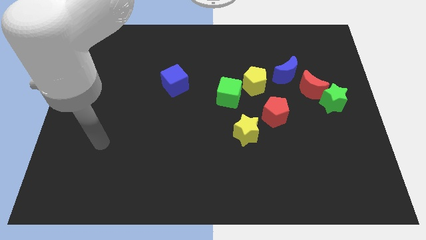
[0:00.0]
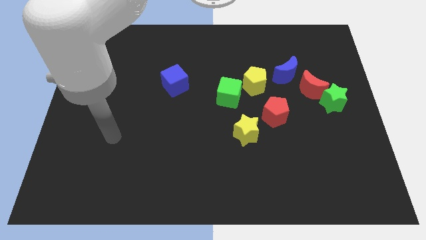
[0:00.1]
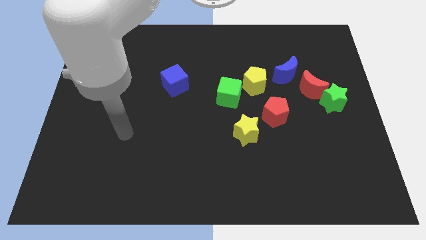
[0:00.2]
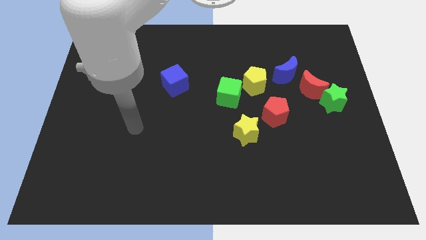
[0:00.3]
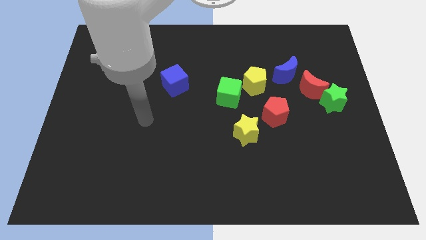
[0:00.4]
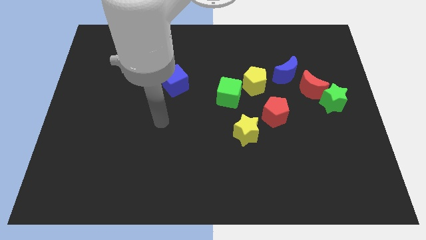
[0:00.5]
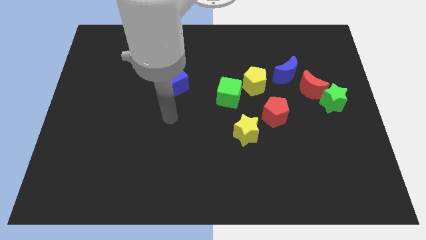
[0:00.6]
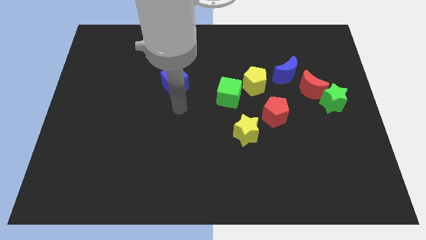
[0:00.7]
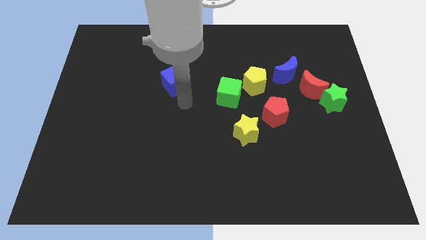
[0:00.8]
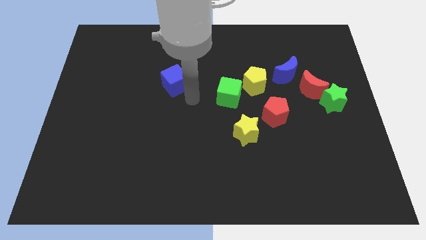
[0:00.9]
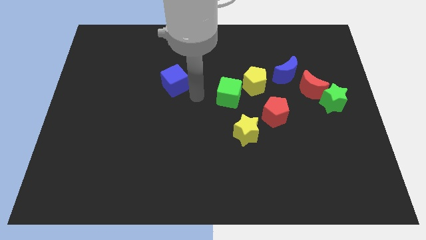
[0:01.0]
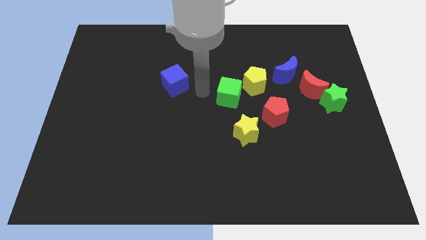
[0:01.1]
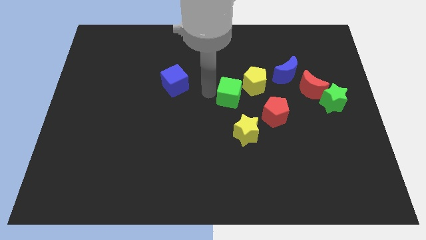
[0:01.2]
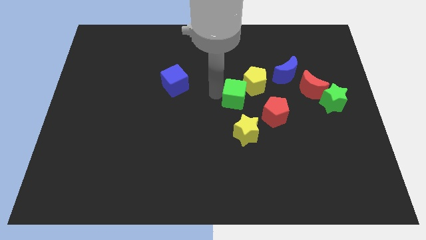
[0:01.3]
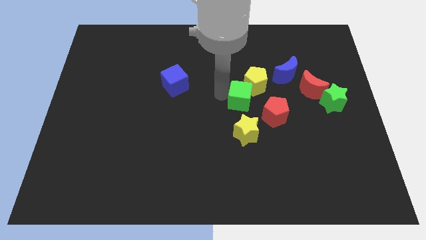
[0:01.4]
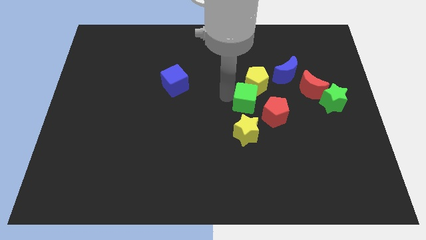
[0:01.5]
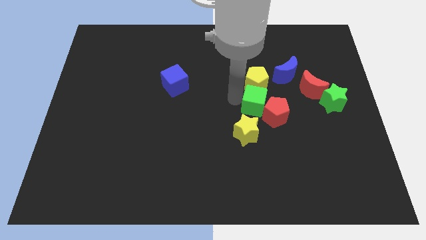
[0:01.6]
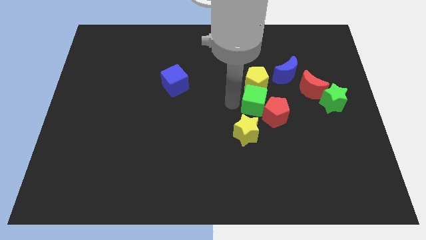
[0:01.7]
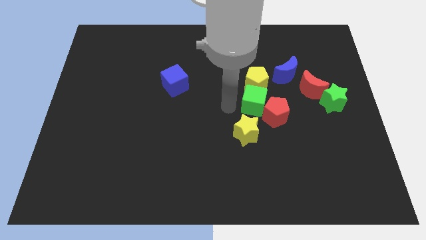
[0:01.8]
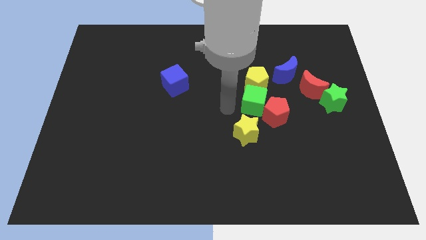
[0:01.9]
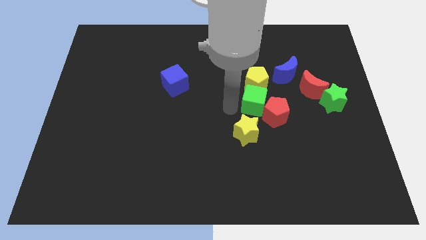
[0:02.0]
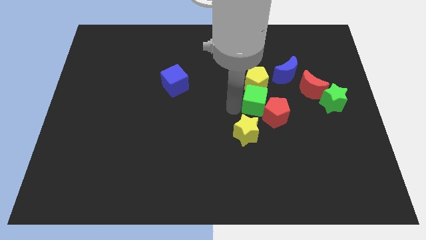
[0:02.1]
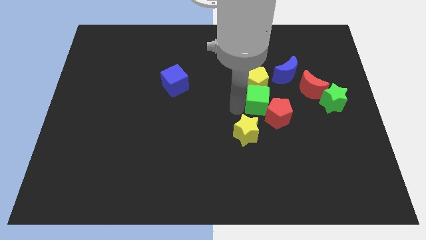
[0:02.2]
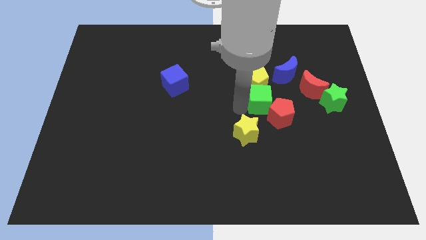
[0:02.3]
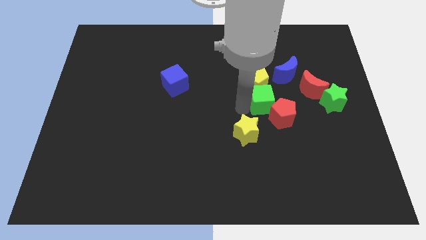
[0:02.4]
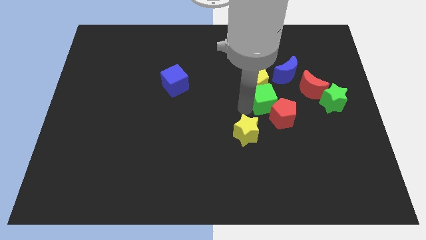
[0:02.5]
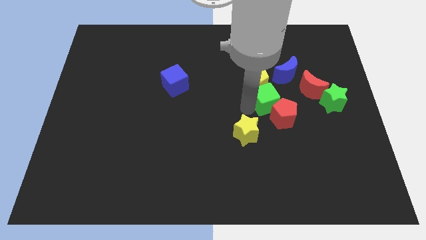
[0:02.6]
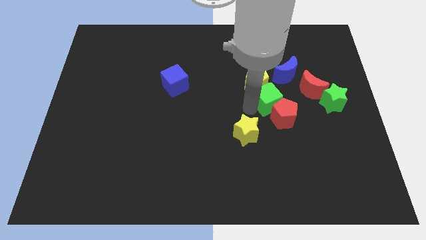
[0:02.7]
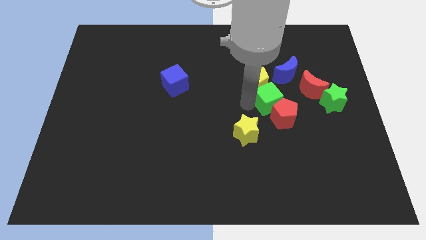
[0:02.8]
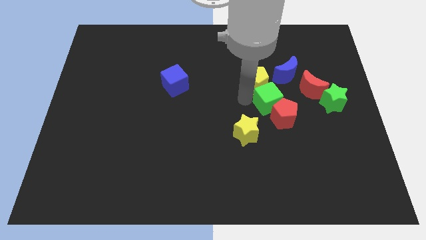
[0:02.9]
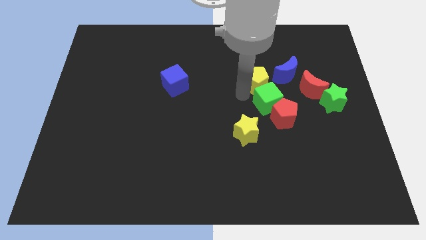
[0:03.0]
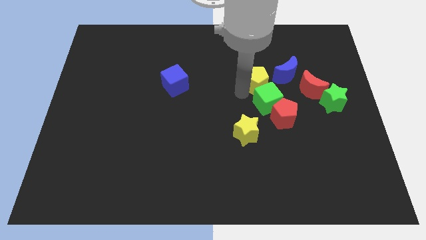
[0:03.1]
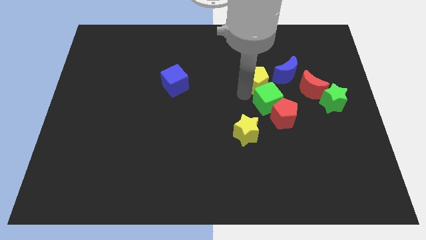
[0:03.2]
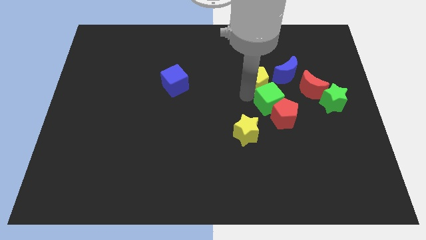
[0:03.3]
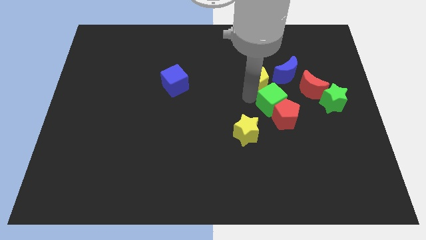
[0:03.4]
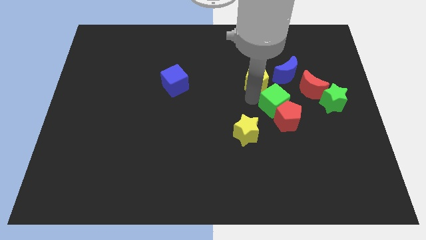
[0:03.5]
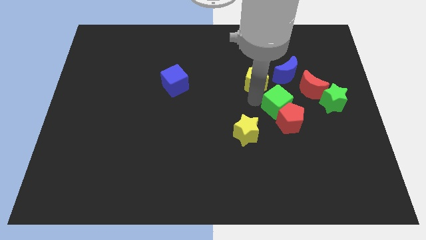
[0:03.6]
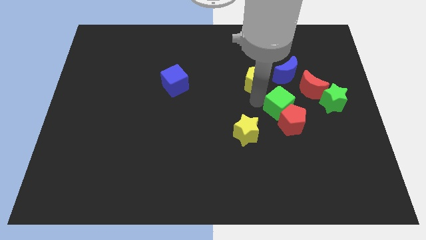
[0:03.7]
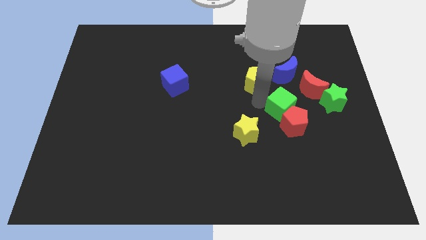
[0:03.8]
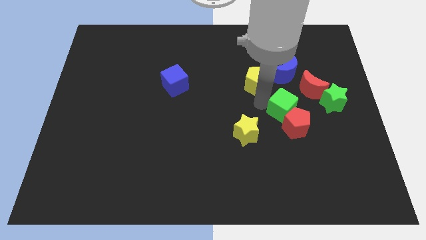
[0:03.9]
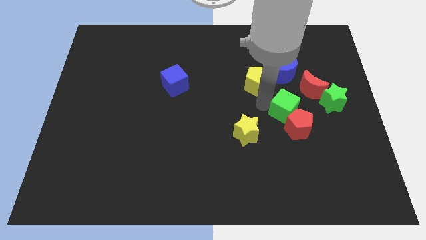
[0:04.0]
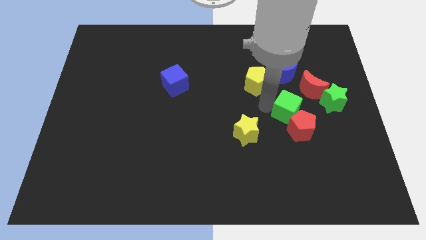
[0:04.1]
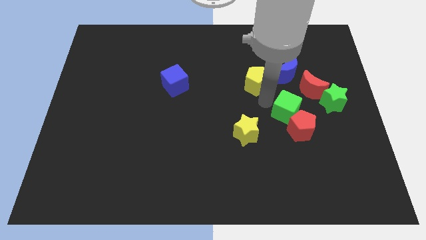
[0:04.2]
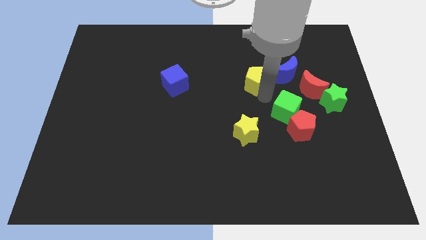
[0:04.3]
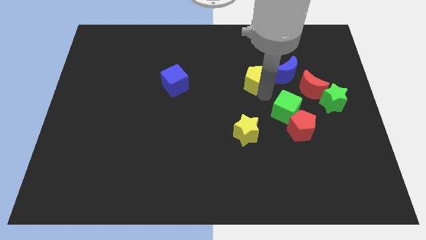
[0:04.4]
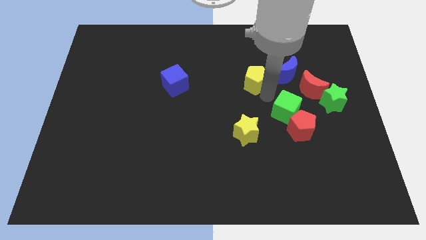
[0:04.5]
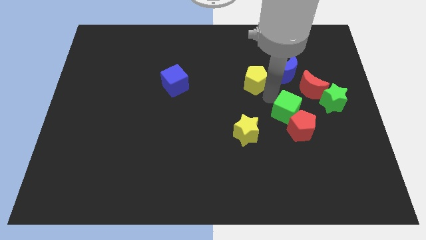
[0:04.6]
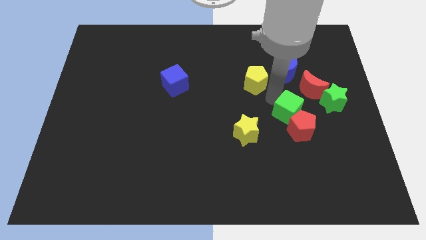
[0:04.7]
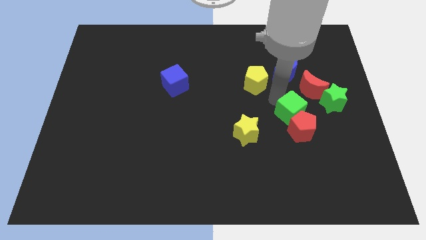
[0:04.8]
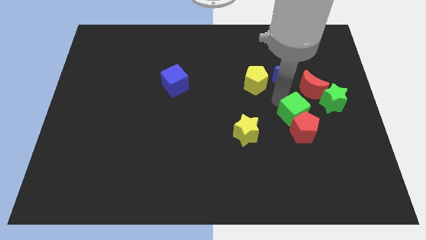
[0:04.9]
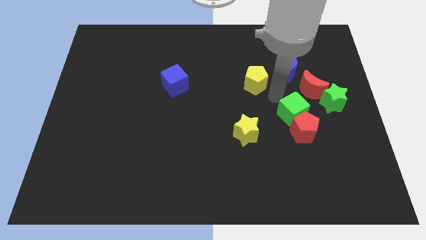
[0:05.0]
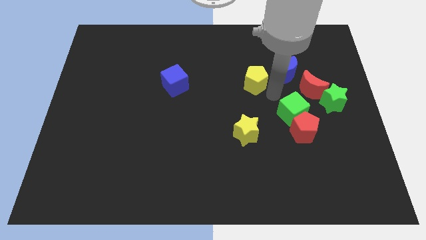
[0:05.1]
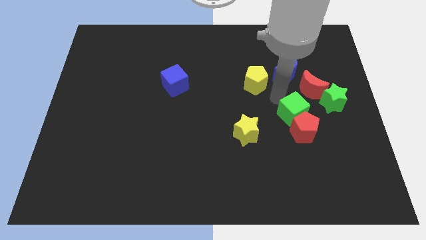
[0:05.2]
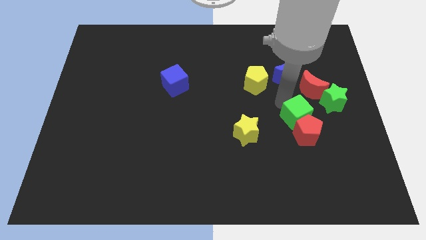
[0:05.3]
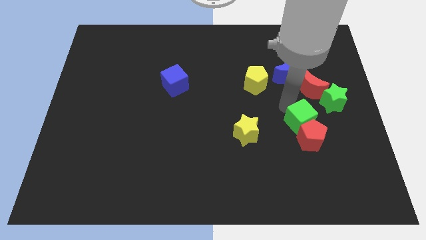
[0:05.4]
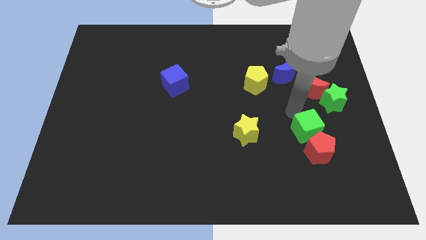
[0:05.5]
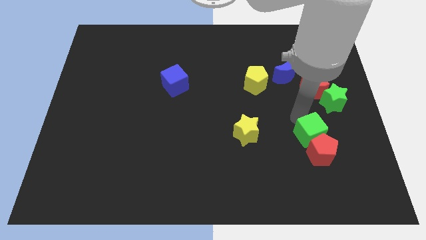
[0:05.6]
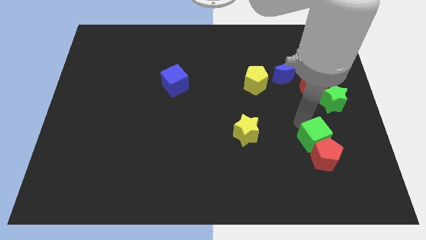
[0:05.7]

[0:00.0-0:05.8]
push the green cube downwards and to the right

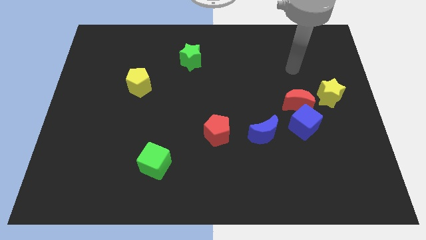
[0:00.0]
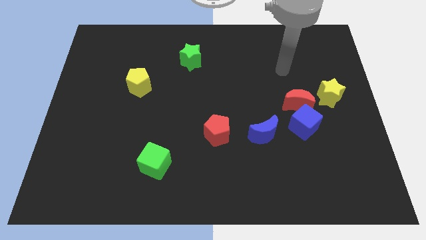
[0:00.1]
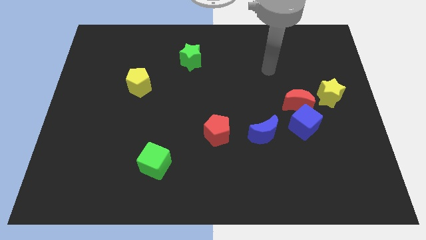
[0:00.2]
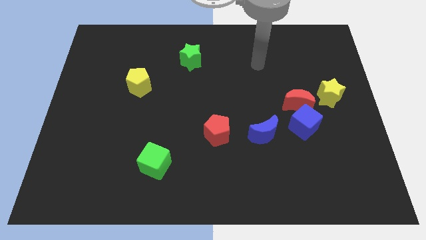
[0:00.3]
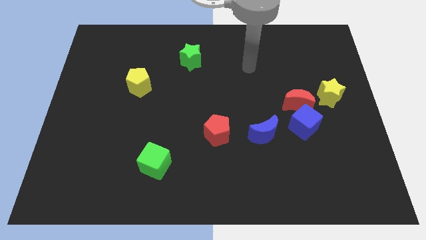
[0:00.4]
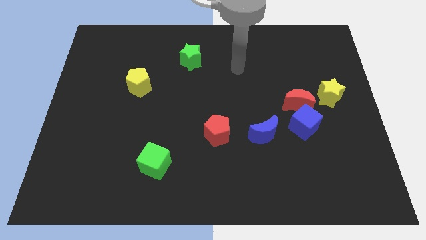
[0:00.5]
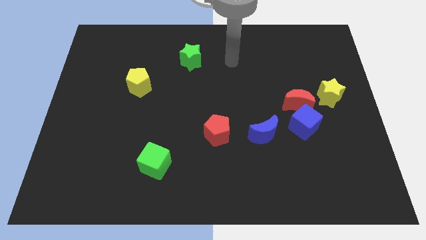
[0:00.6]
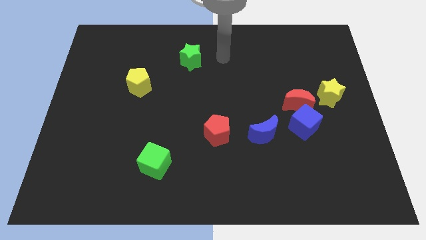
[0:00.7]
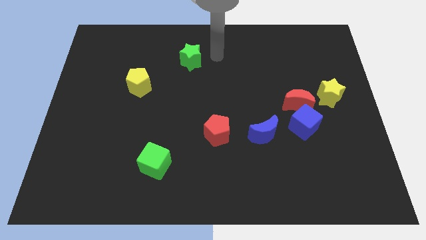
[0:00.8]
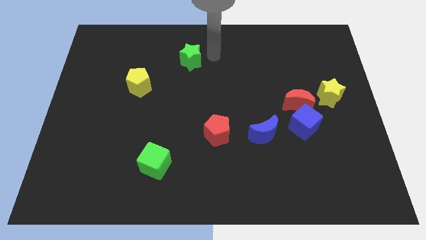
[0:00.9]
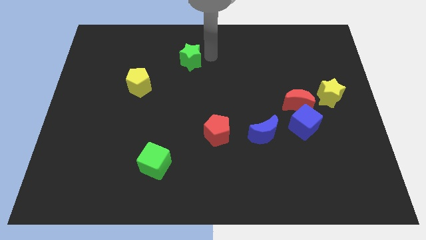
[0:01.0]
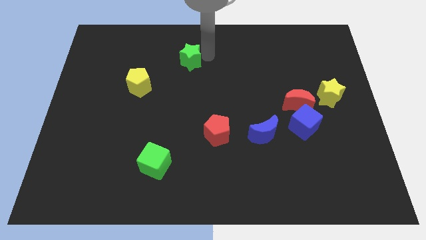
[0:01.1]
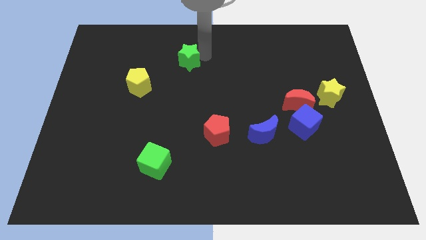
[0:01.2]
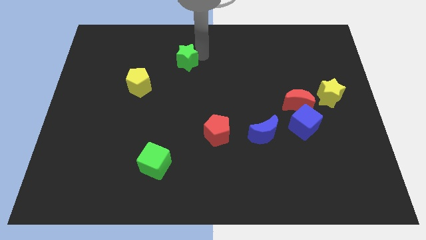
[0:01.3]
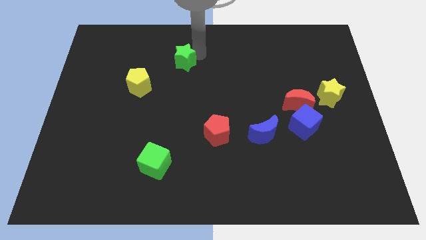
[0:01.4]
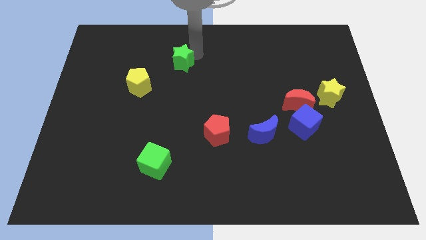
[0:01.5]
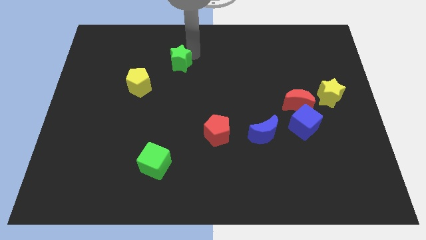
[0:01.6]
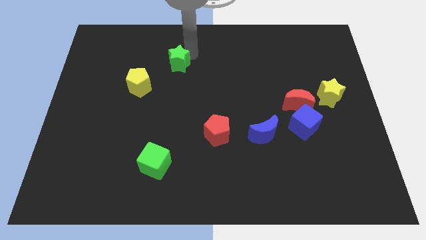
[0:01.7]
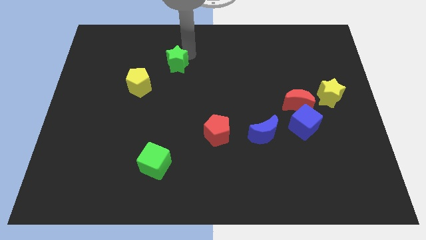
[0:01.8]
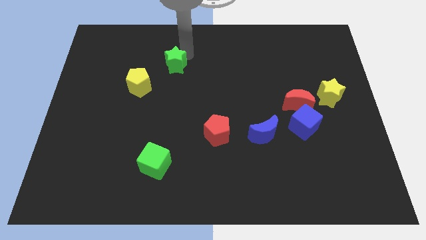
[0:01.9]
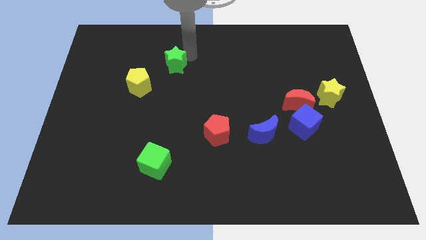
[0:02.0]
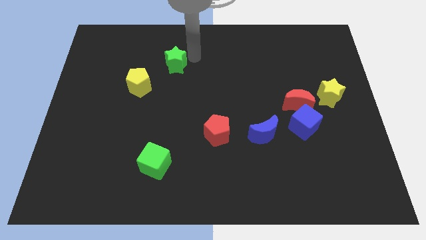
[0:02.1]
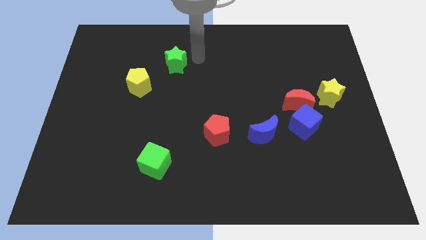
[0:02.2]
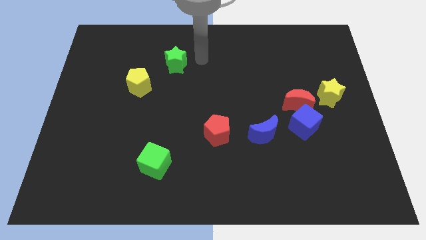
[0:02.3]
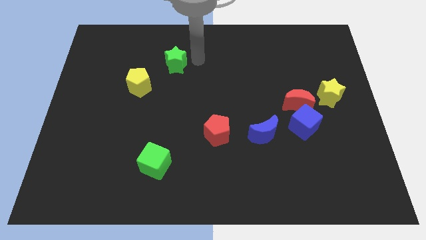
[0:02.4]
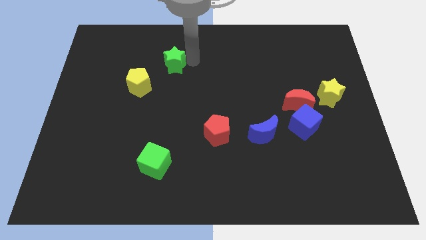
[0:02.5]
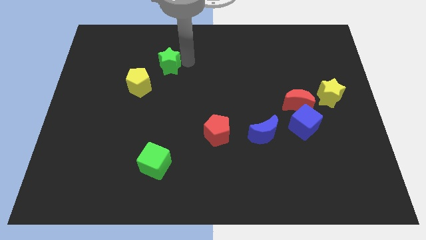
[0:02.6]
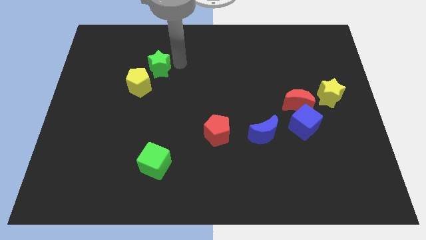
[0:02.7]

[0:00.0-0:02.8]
push the green star left somewhat
